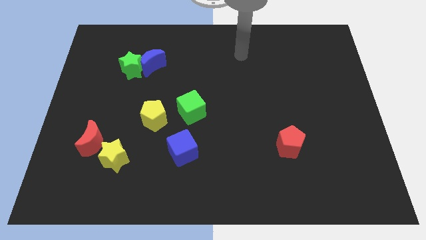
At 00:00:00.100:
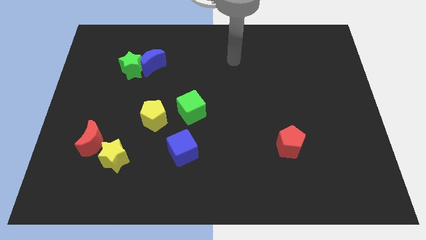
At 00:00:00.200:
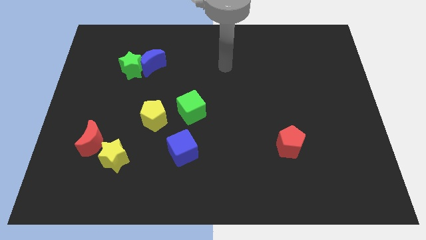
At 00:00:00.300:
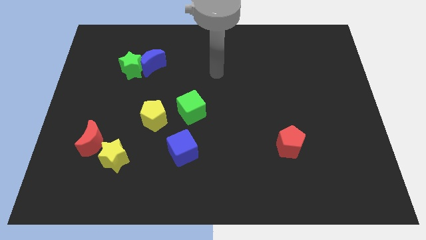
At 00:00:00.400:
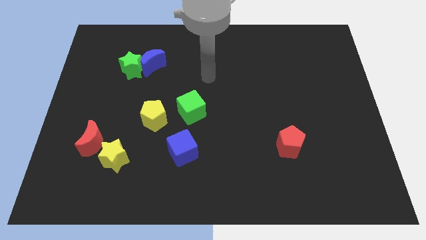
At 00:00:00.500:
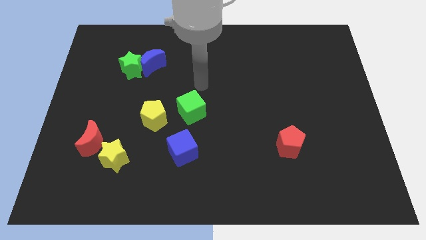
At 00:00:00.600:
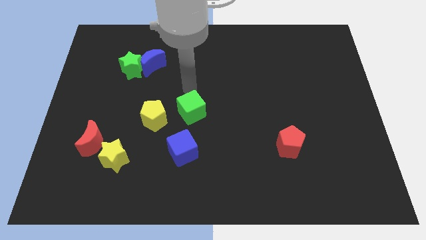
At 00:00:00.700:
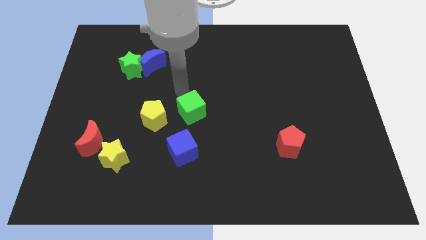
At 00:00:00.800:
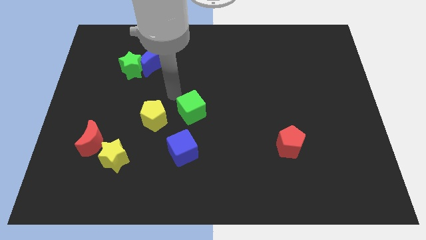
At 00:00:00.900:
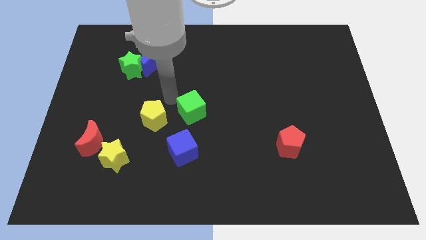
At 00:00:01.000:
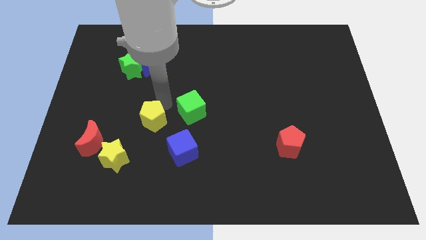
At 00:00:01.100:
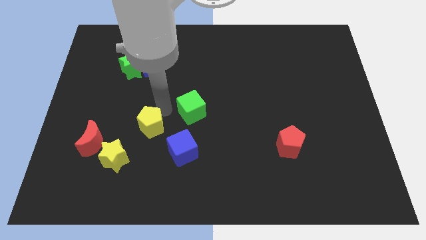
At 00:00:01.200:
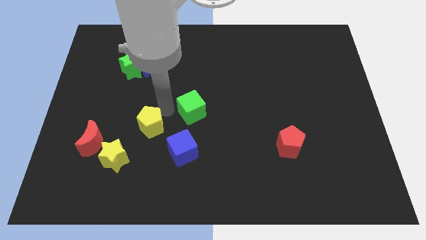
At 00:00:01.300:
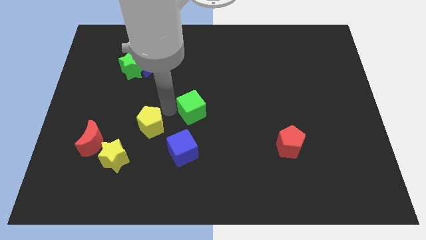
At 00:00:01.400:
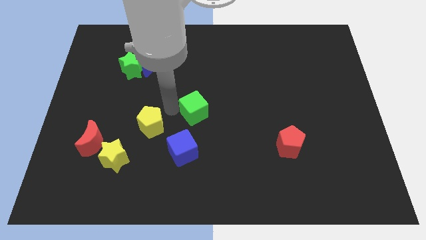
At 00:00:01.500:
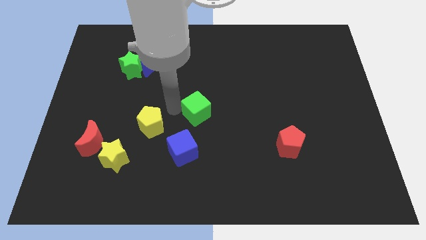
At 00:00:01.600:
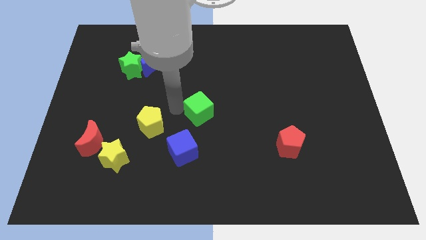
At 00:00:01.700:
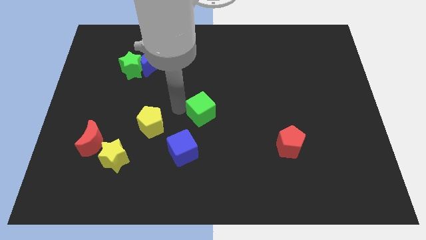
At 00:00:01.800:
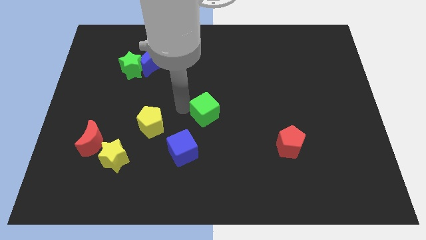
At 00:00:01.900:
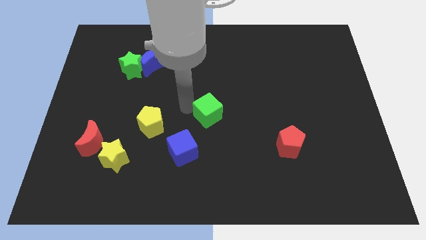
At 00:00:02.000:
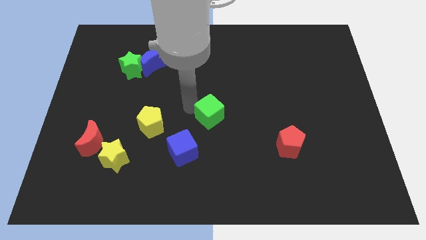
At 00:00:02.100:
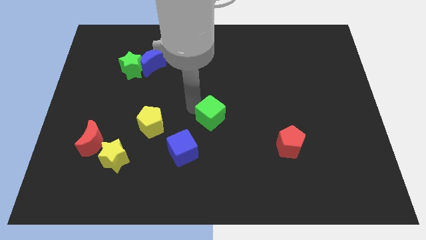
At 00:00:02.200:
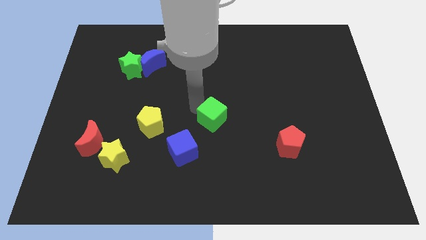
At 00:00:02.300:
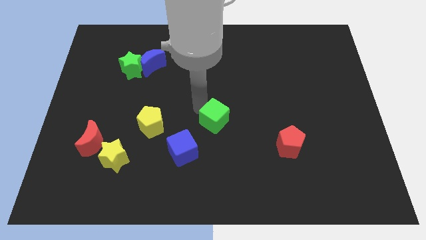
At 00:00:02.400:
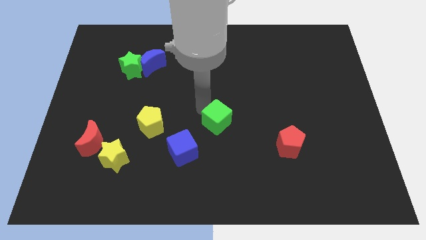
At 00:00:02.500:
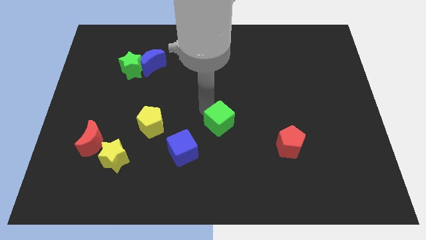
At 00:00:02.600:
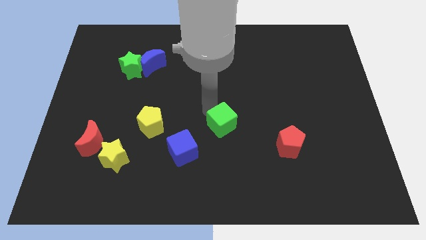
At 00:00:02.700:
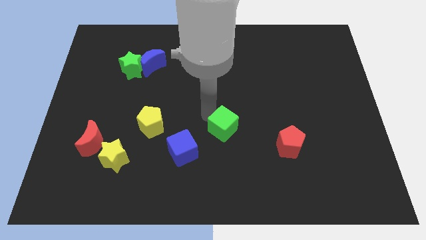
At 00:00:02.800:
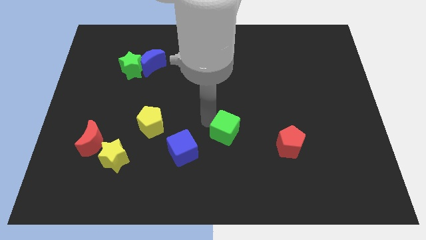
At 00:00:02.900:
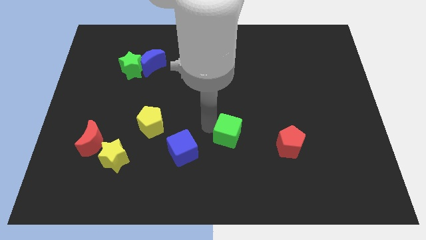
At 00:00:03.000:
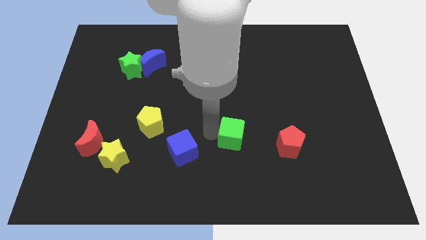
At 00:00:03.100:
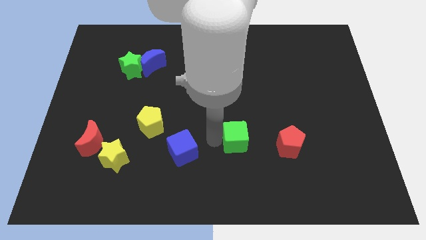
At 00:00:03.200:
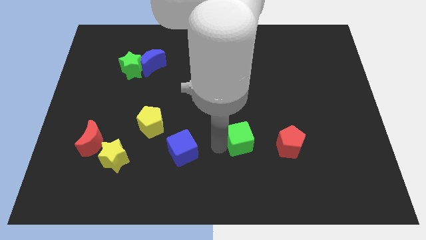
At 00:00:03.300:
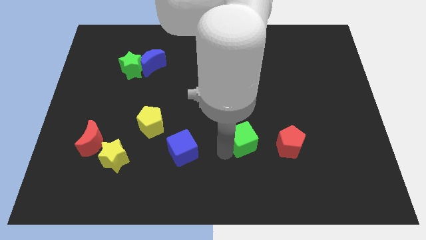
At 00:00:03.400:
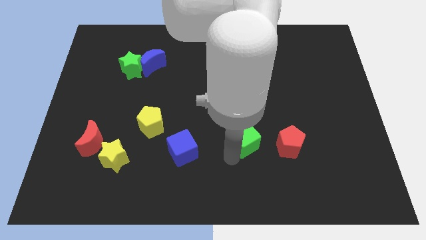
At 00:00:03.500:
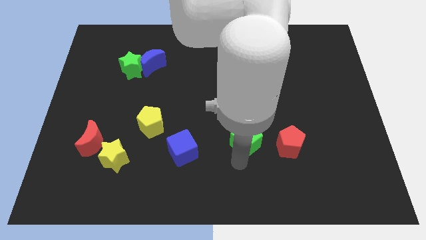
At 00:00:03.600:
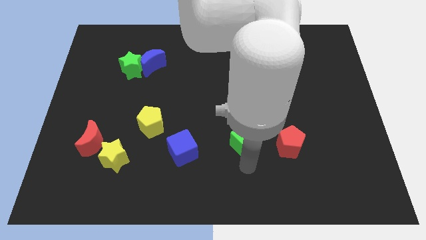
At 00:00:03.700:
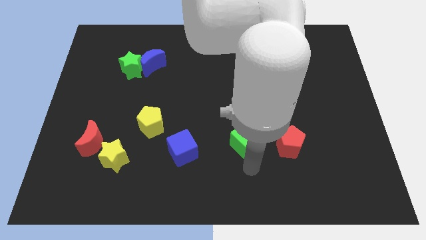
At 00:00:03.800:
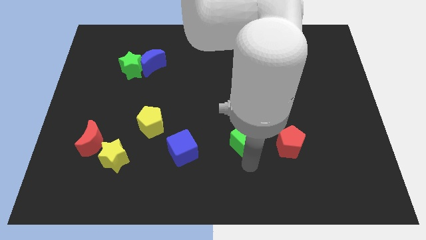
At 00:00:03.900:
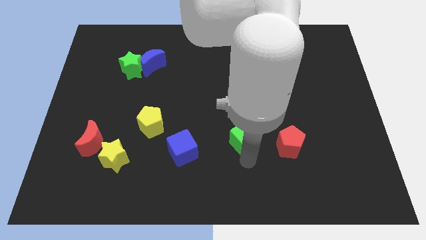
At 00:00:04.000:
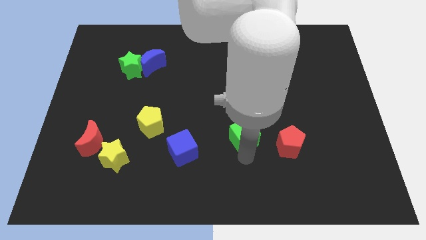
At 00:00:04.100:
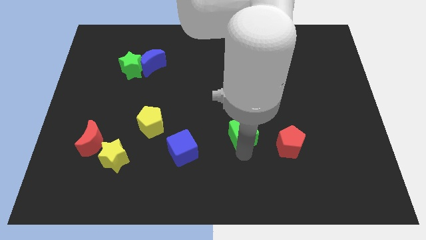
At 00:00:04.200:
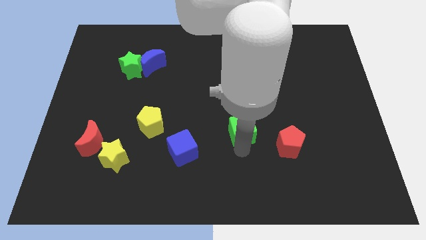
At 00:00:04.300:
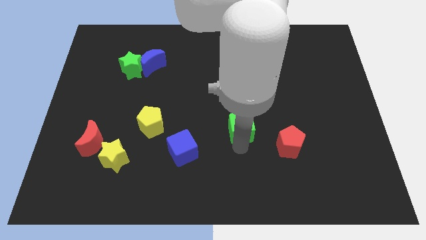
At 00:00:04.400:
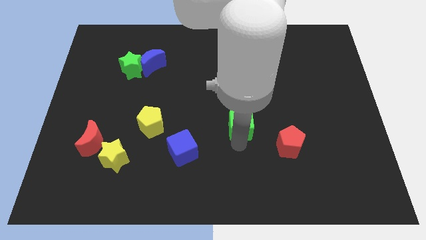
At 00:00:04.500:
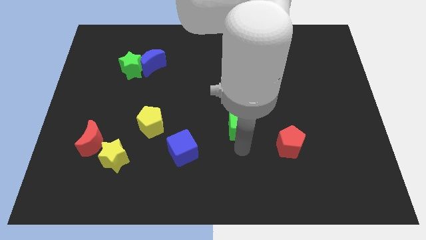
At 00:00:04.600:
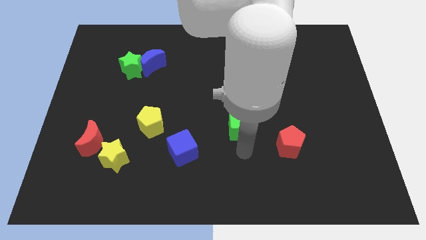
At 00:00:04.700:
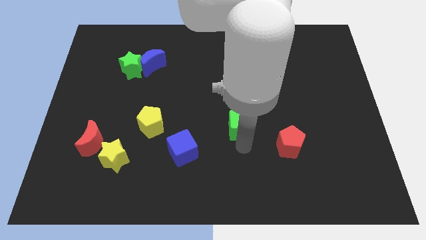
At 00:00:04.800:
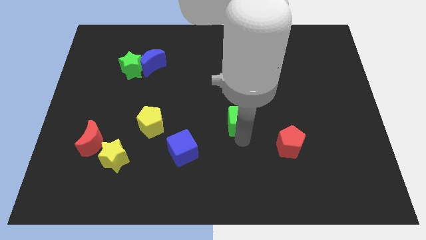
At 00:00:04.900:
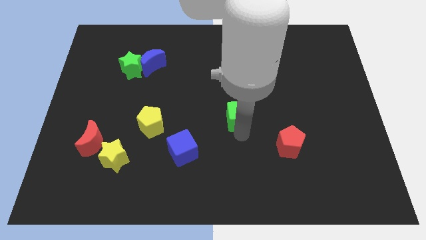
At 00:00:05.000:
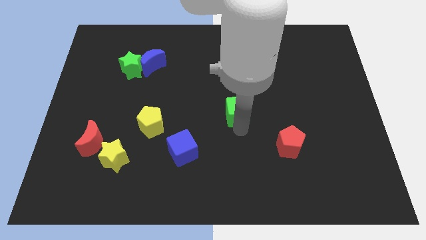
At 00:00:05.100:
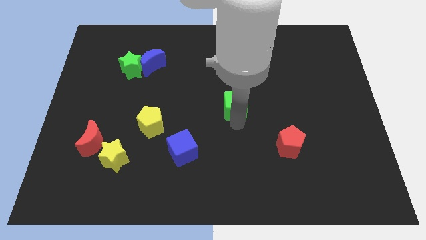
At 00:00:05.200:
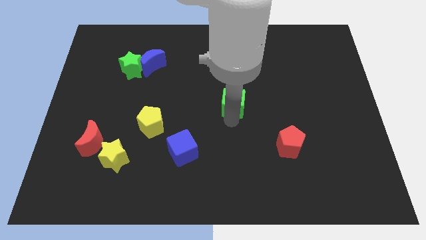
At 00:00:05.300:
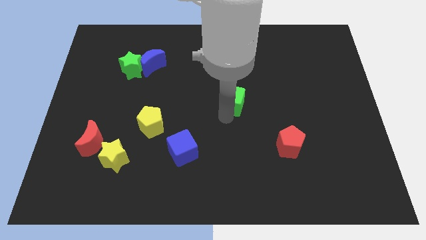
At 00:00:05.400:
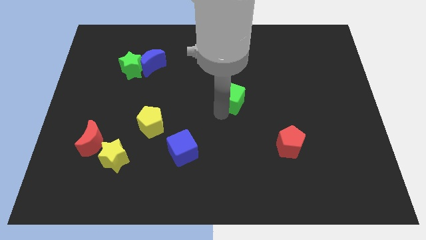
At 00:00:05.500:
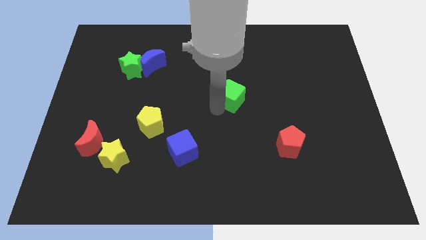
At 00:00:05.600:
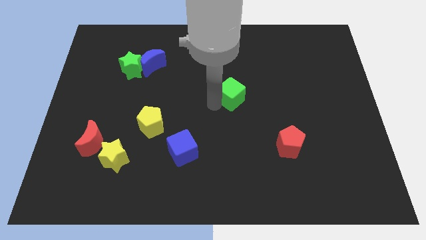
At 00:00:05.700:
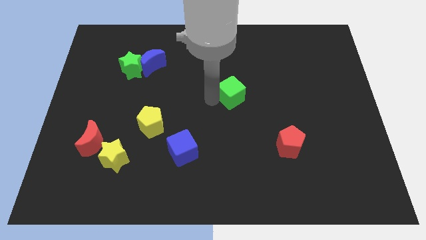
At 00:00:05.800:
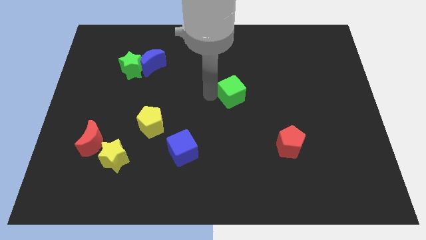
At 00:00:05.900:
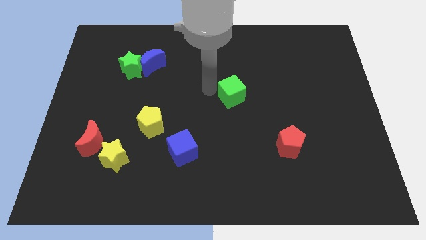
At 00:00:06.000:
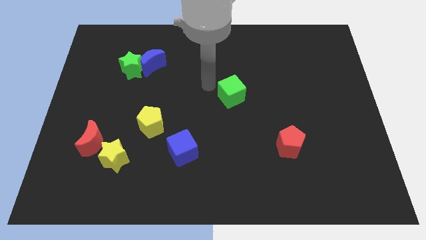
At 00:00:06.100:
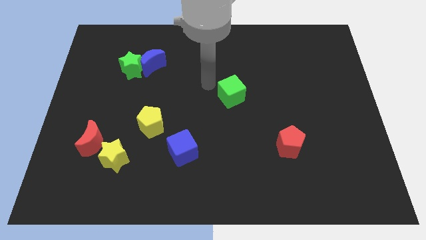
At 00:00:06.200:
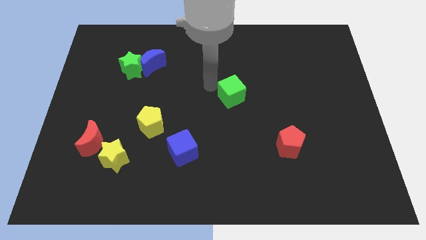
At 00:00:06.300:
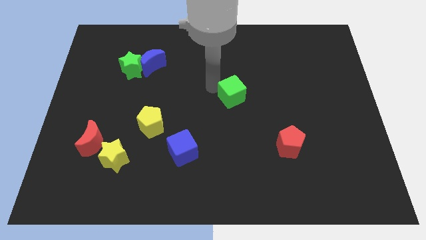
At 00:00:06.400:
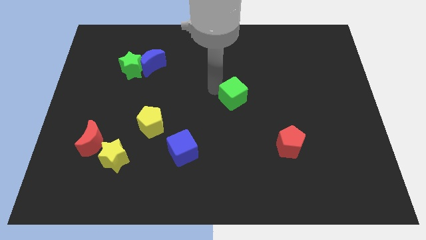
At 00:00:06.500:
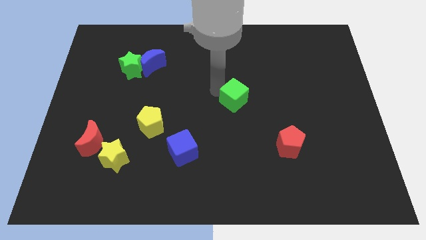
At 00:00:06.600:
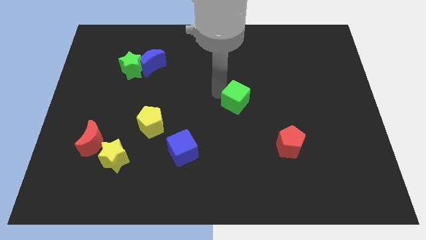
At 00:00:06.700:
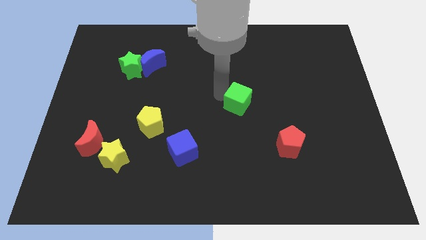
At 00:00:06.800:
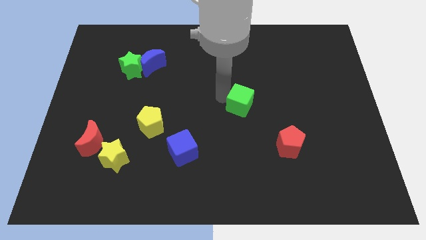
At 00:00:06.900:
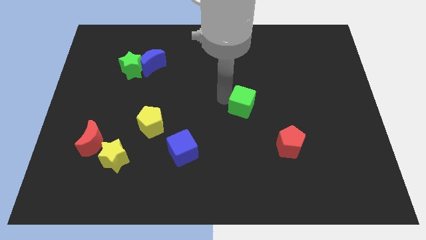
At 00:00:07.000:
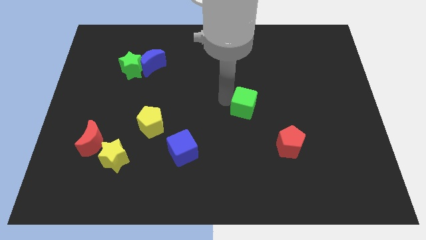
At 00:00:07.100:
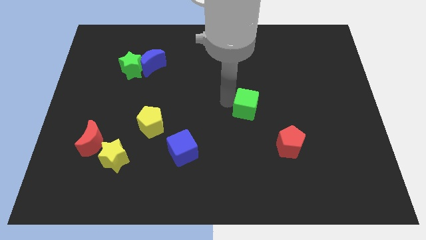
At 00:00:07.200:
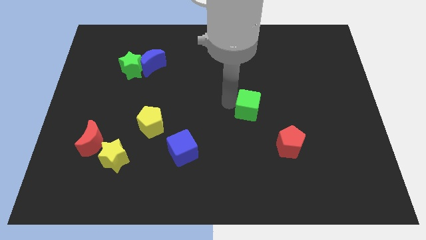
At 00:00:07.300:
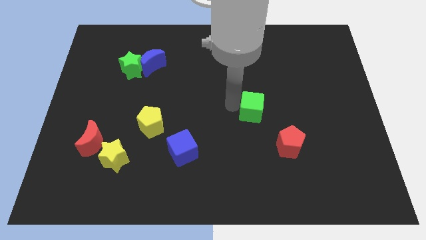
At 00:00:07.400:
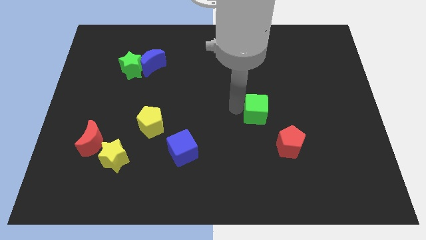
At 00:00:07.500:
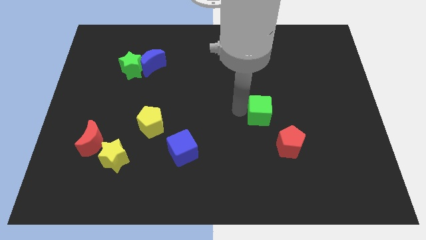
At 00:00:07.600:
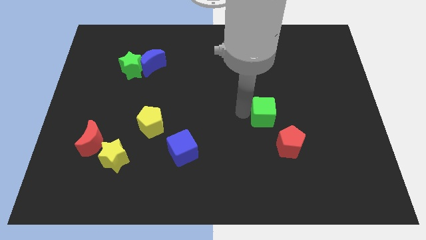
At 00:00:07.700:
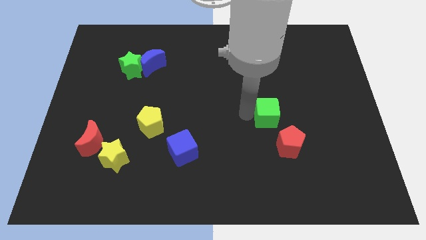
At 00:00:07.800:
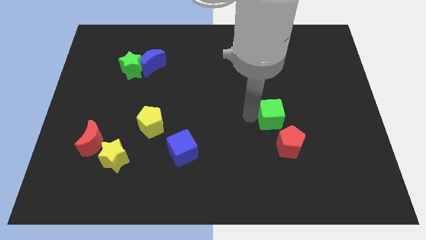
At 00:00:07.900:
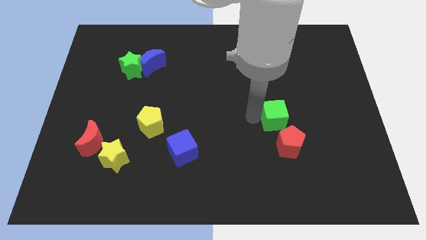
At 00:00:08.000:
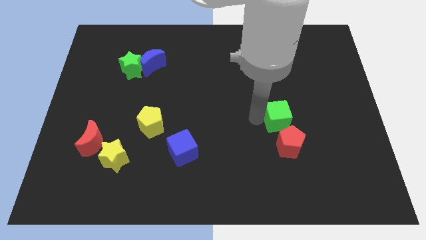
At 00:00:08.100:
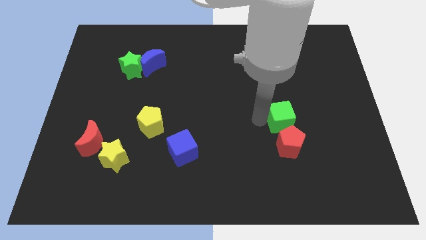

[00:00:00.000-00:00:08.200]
push the green cube to the right
